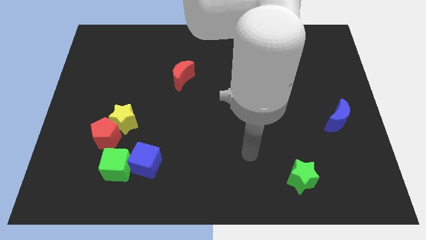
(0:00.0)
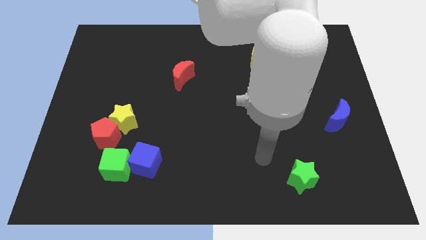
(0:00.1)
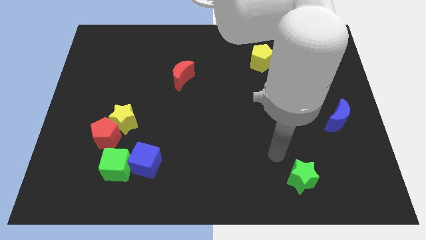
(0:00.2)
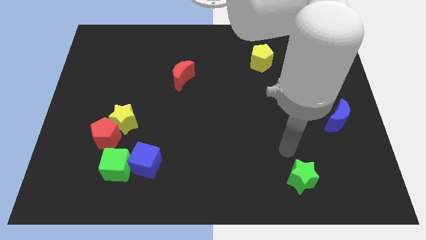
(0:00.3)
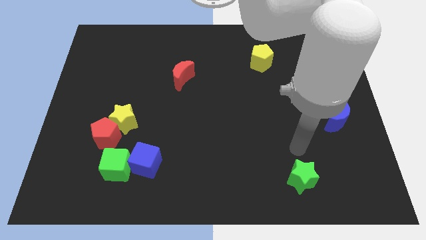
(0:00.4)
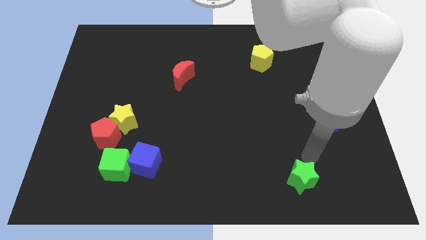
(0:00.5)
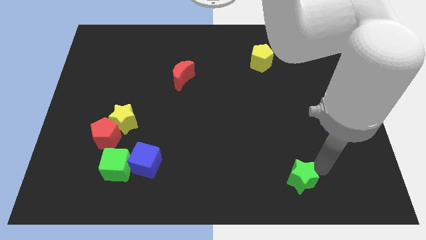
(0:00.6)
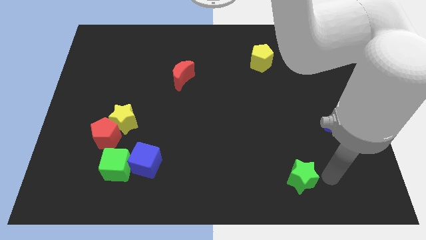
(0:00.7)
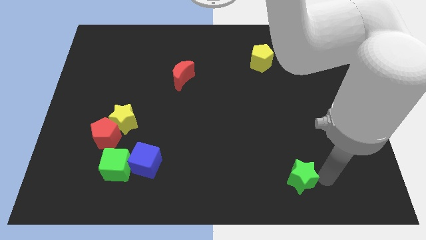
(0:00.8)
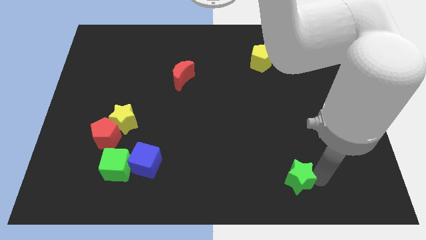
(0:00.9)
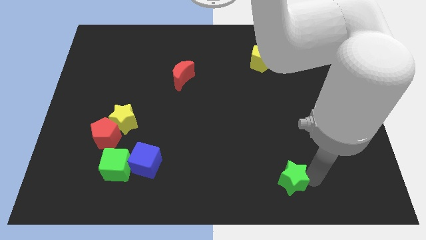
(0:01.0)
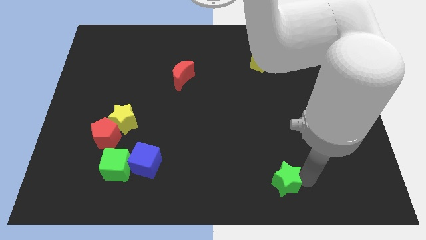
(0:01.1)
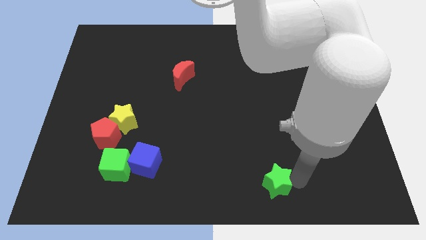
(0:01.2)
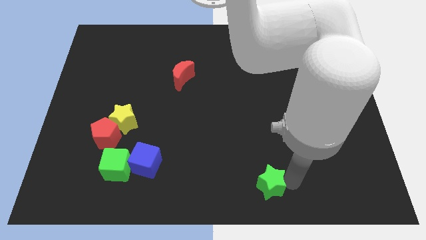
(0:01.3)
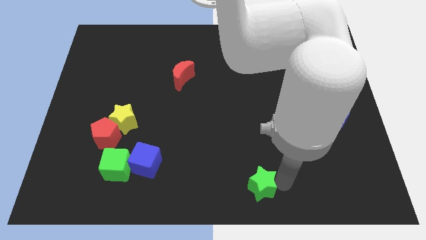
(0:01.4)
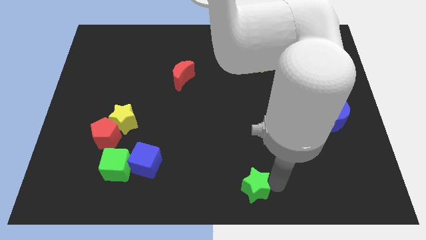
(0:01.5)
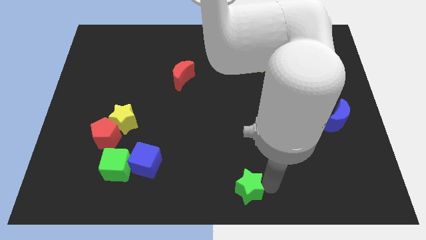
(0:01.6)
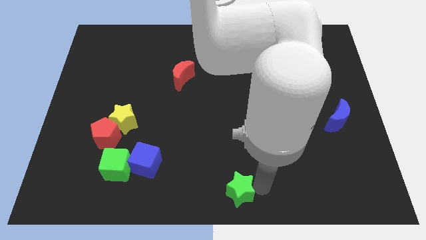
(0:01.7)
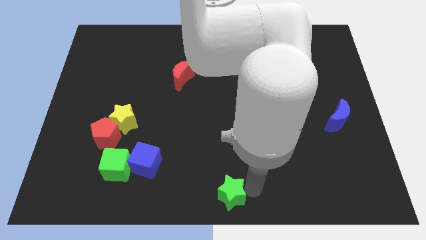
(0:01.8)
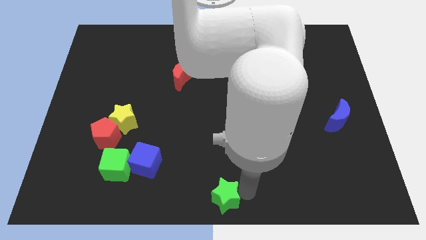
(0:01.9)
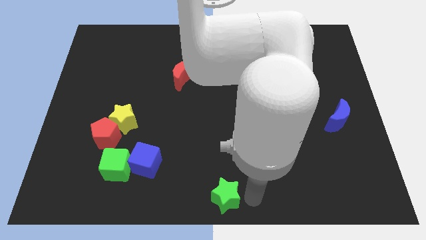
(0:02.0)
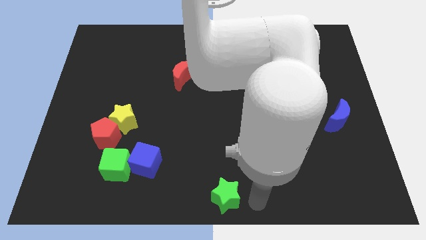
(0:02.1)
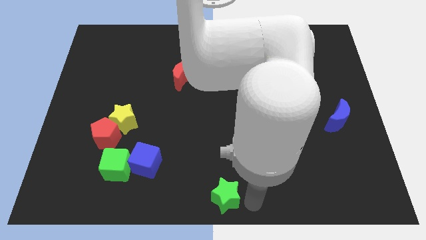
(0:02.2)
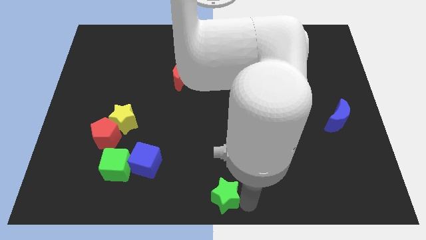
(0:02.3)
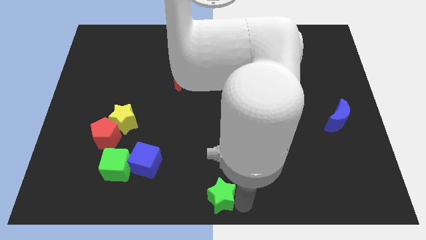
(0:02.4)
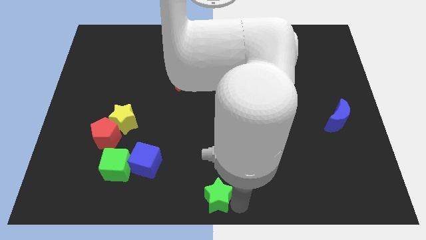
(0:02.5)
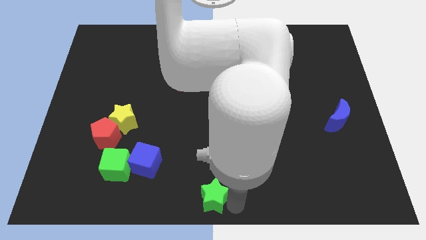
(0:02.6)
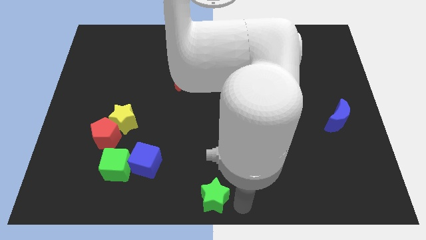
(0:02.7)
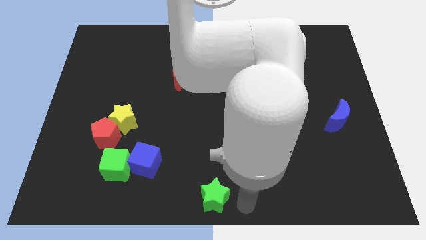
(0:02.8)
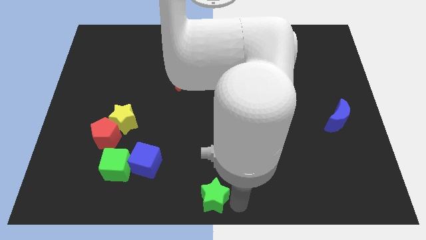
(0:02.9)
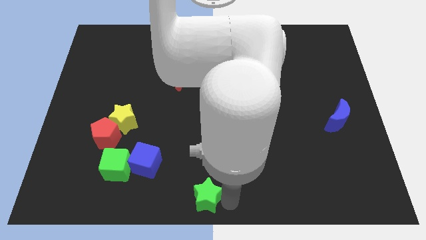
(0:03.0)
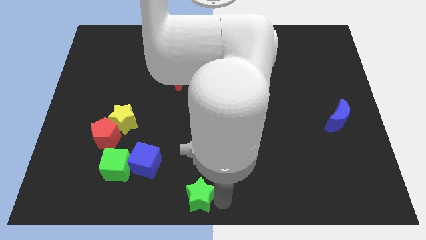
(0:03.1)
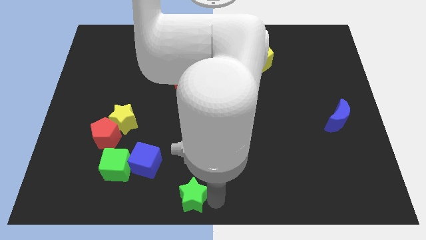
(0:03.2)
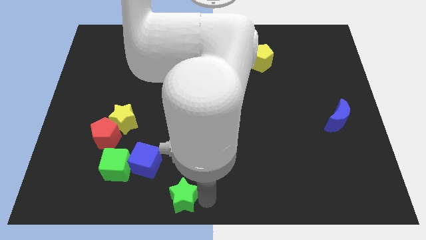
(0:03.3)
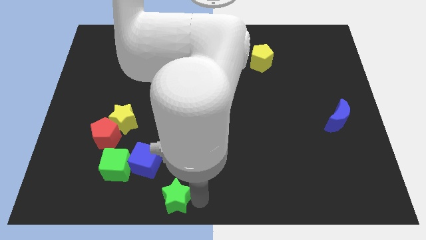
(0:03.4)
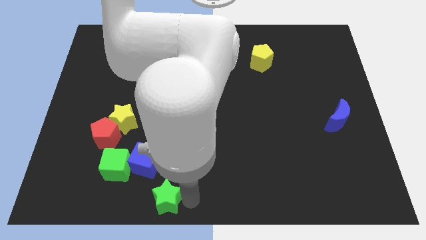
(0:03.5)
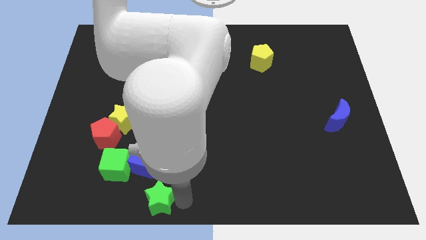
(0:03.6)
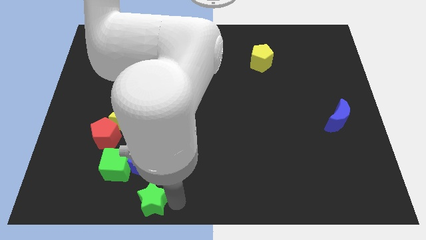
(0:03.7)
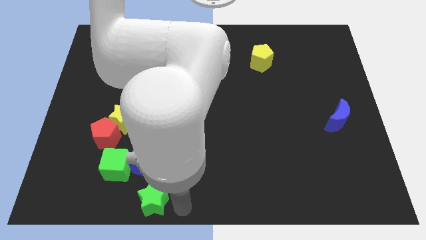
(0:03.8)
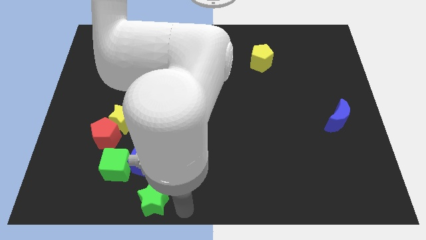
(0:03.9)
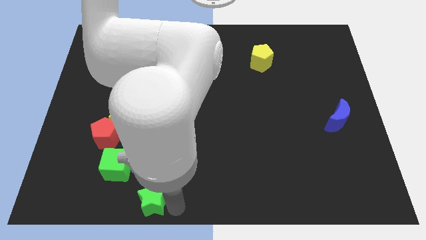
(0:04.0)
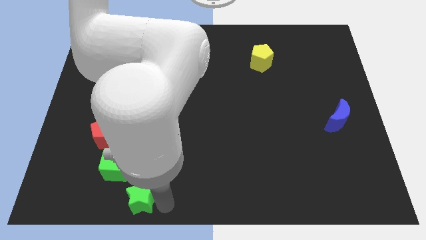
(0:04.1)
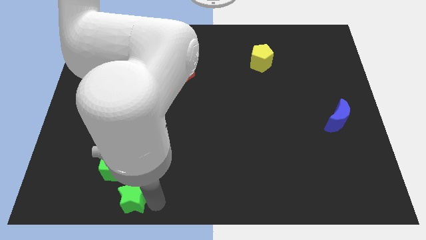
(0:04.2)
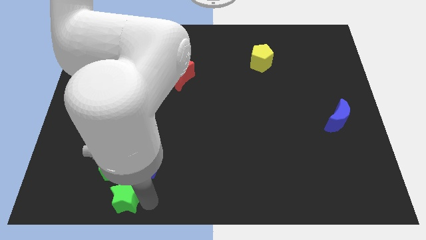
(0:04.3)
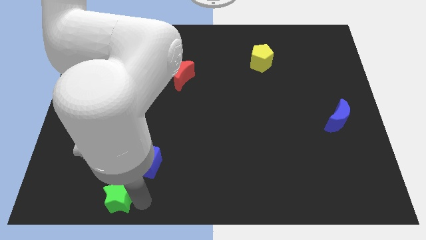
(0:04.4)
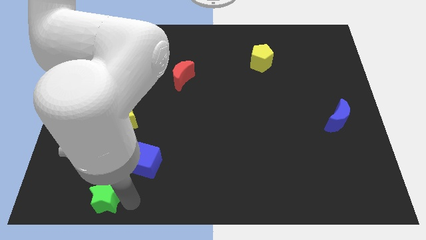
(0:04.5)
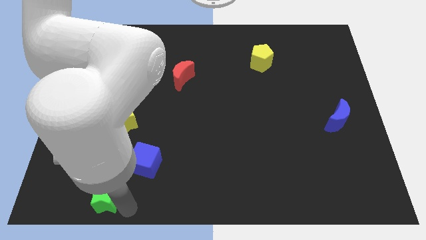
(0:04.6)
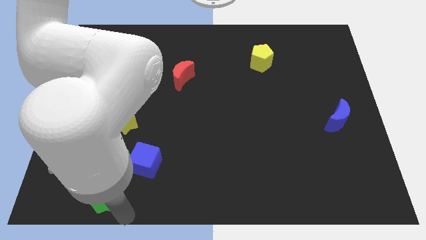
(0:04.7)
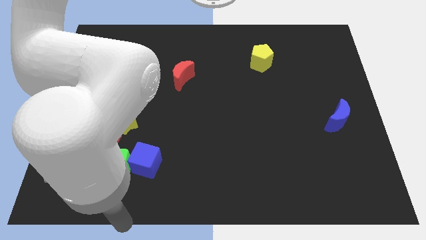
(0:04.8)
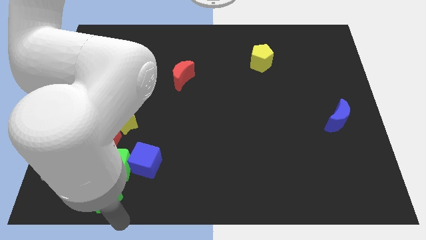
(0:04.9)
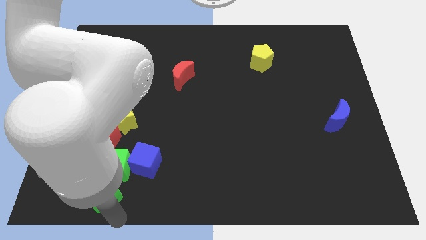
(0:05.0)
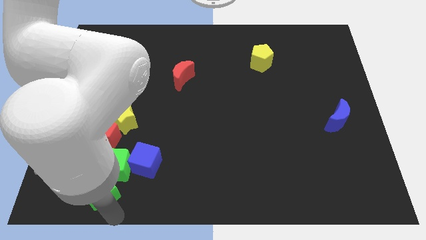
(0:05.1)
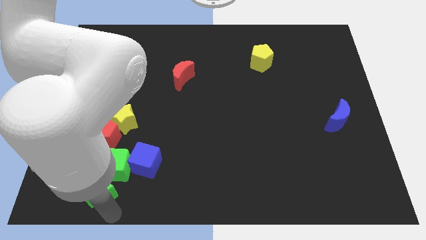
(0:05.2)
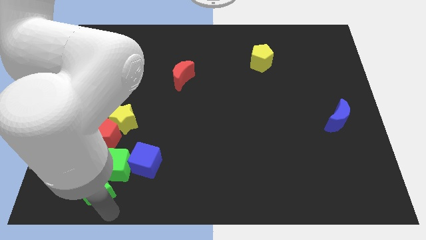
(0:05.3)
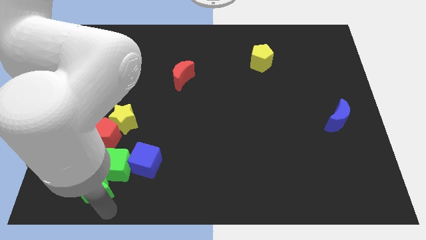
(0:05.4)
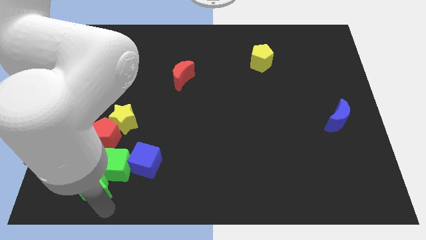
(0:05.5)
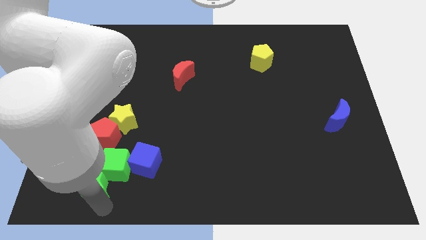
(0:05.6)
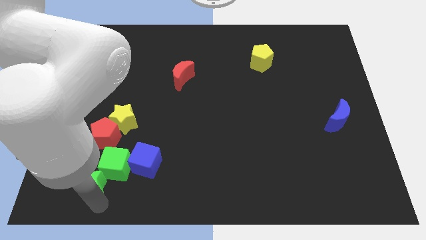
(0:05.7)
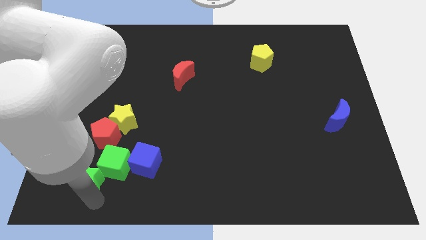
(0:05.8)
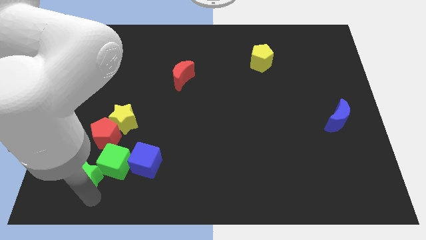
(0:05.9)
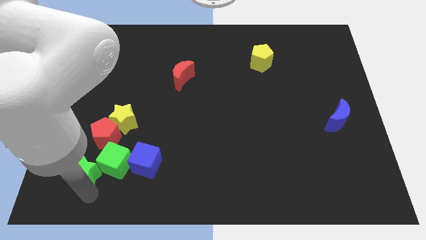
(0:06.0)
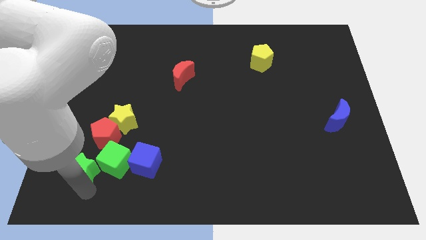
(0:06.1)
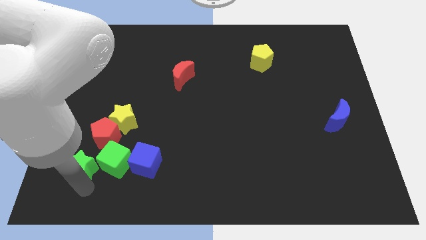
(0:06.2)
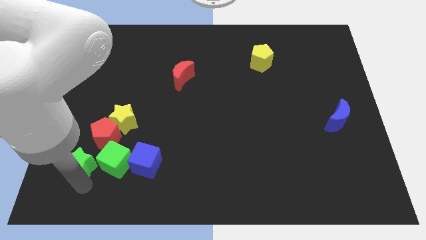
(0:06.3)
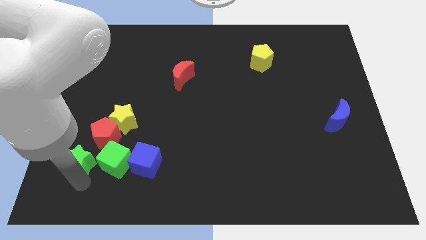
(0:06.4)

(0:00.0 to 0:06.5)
put the green star to the bottom left side of the yellow star
